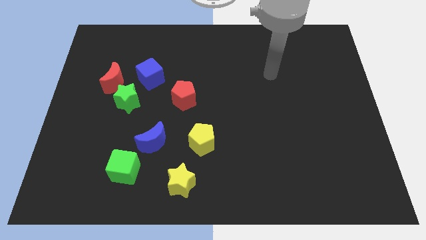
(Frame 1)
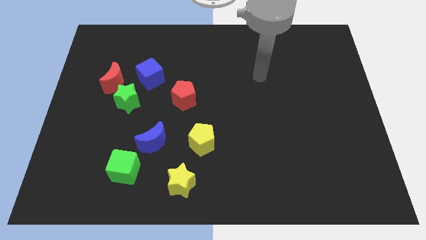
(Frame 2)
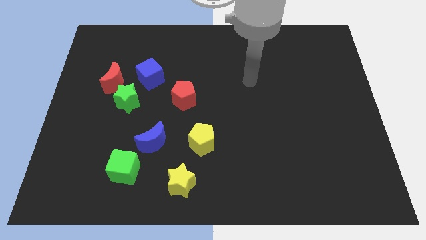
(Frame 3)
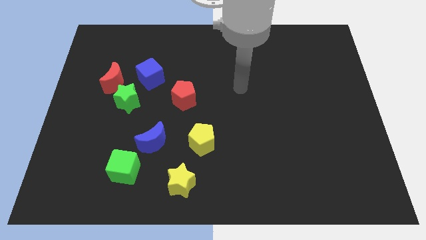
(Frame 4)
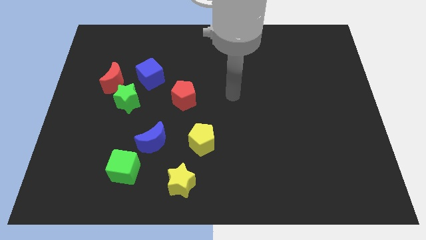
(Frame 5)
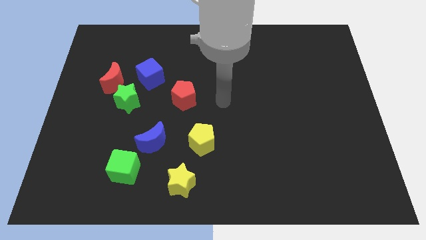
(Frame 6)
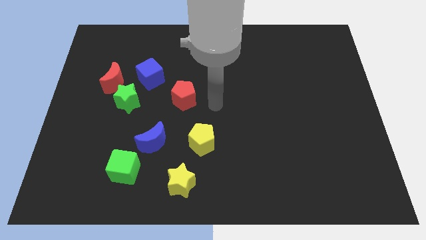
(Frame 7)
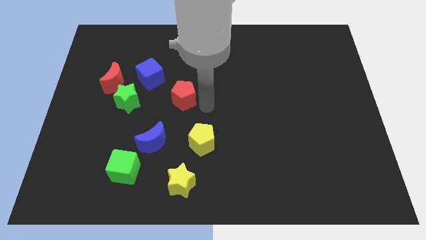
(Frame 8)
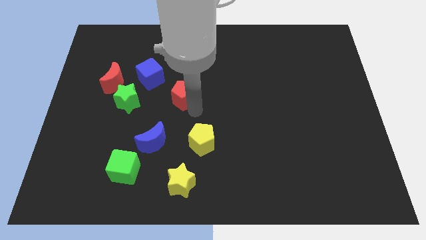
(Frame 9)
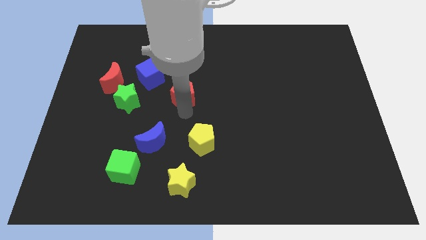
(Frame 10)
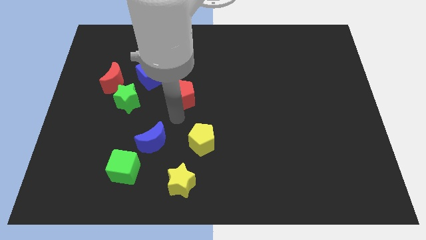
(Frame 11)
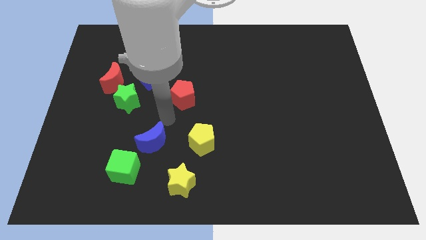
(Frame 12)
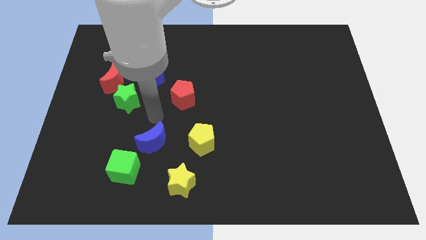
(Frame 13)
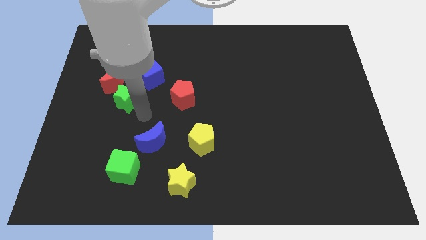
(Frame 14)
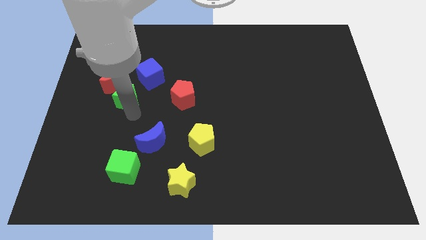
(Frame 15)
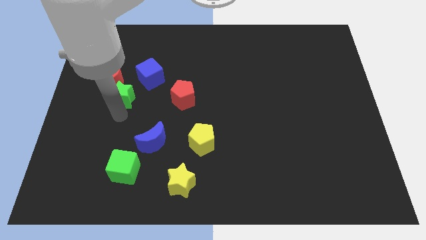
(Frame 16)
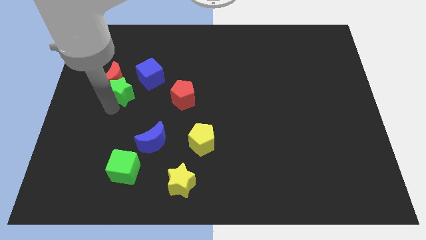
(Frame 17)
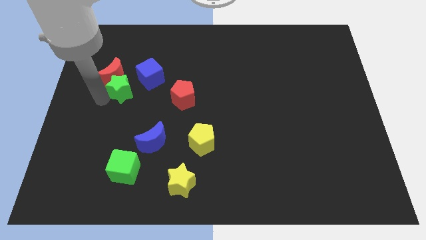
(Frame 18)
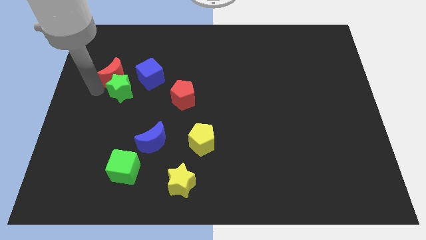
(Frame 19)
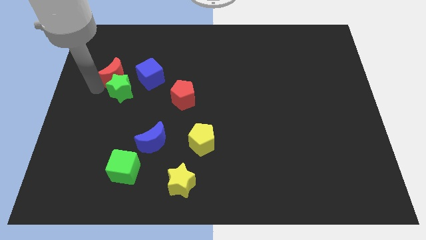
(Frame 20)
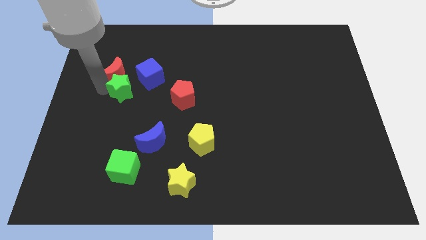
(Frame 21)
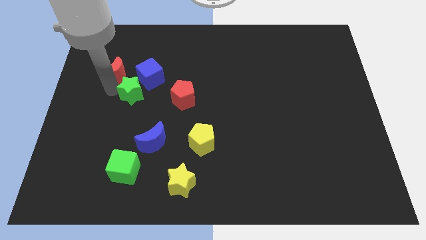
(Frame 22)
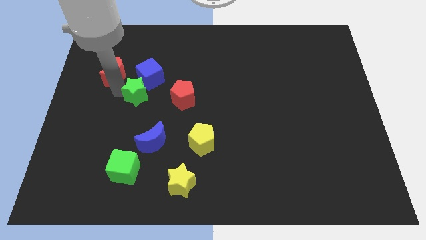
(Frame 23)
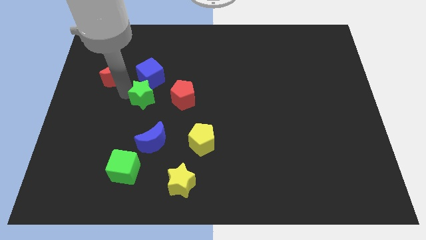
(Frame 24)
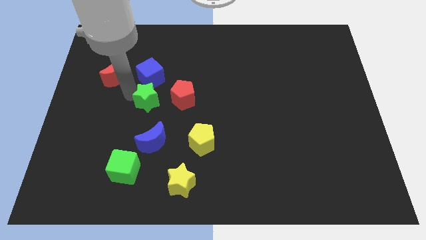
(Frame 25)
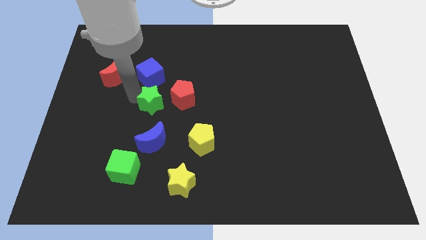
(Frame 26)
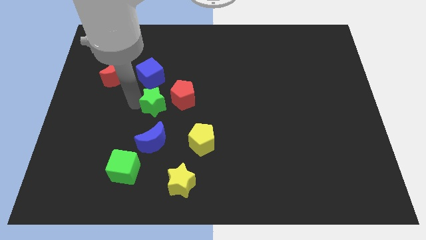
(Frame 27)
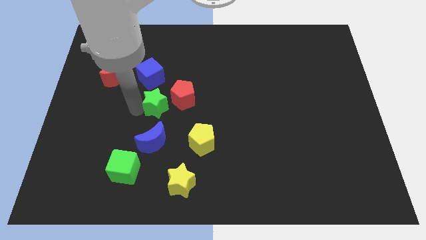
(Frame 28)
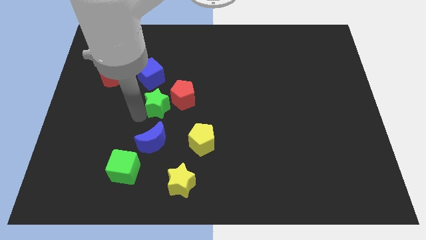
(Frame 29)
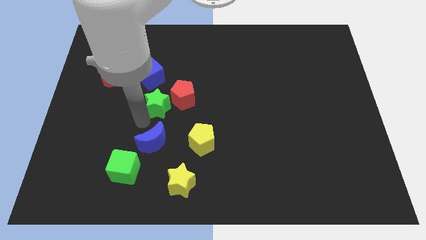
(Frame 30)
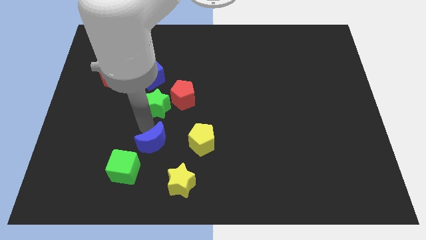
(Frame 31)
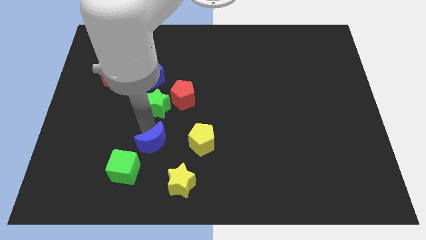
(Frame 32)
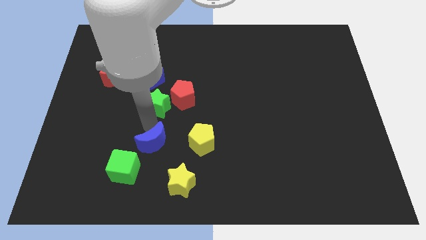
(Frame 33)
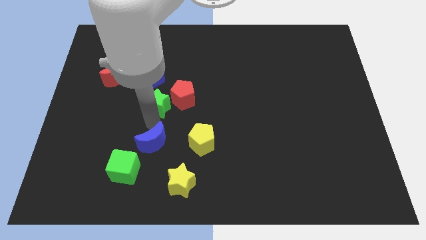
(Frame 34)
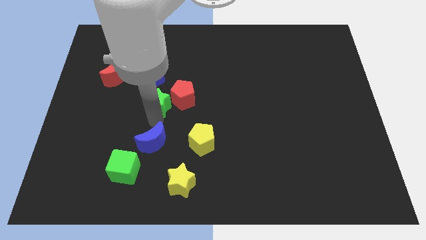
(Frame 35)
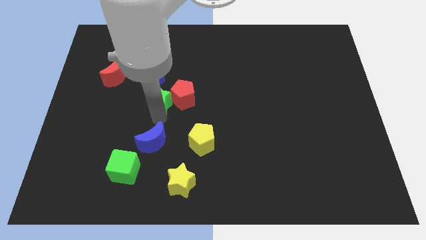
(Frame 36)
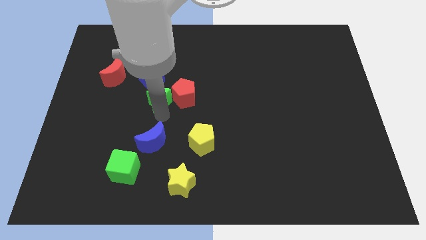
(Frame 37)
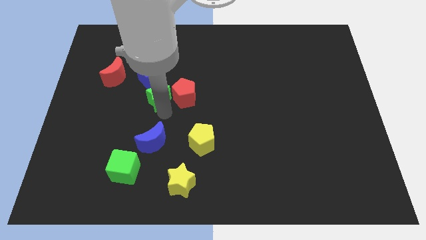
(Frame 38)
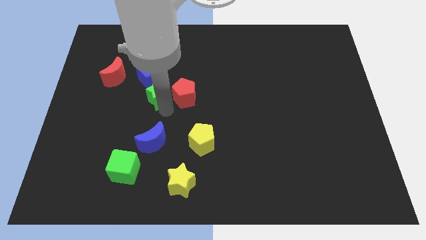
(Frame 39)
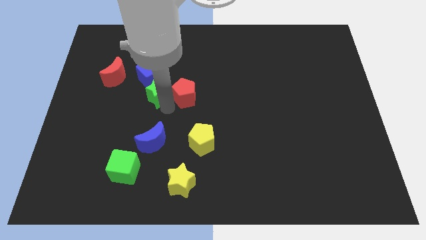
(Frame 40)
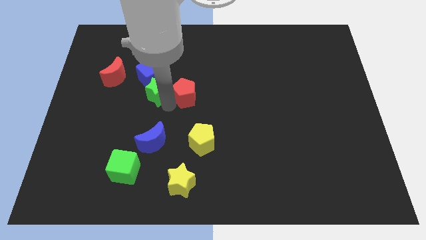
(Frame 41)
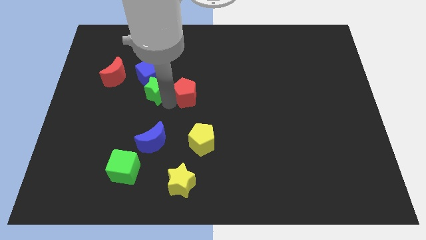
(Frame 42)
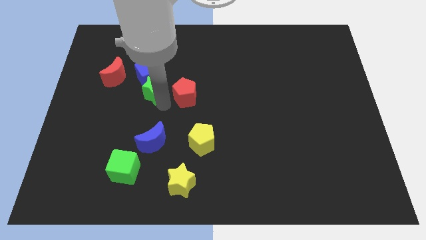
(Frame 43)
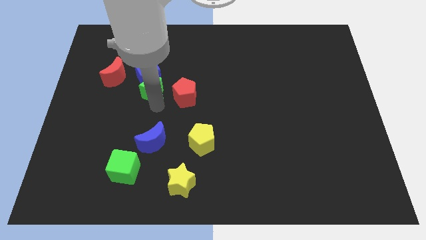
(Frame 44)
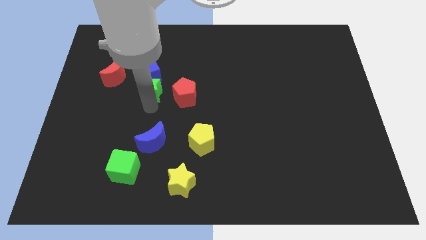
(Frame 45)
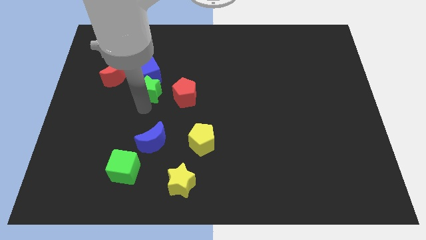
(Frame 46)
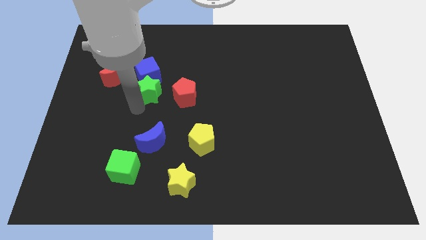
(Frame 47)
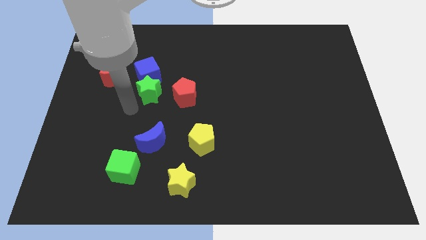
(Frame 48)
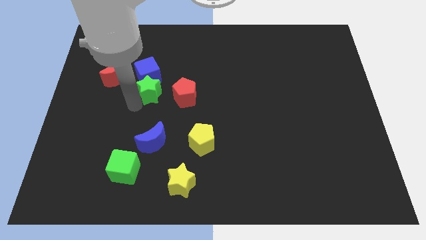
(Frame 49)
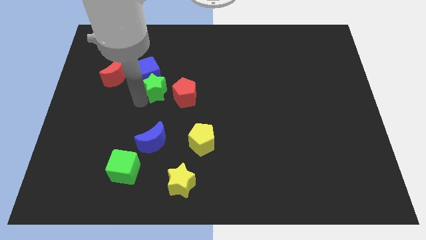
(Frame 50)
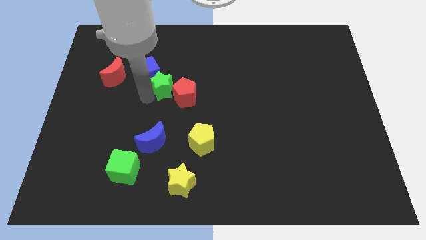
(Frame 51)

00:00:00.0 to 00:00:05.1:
slightly push the green star up and to the right

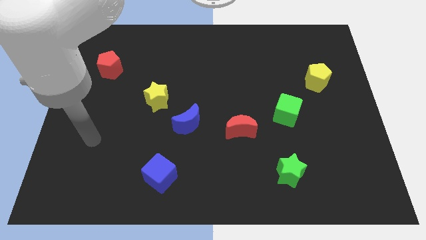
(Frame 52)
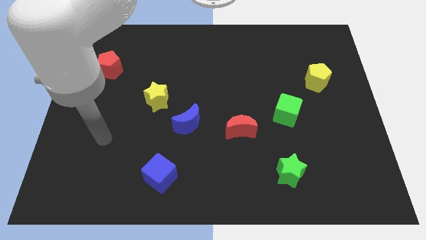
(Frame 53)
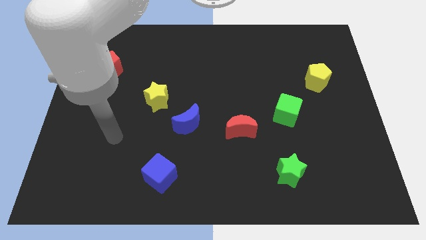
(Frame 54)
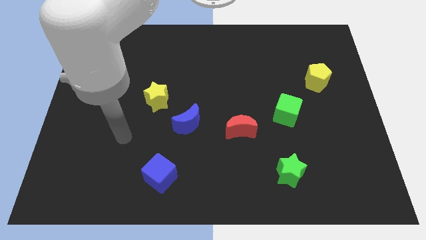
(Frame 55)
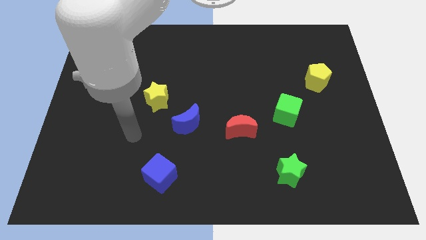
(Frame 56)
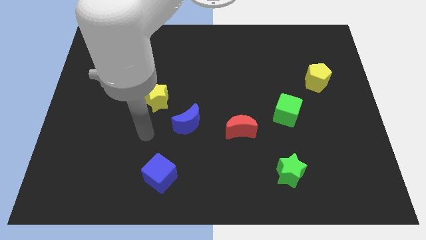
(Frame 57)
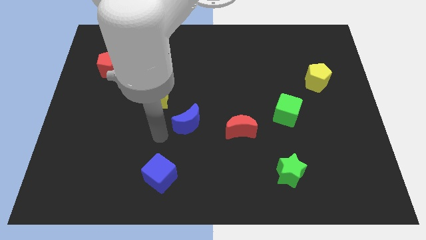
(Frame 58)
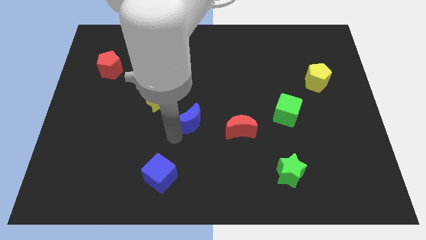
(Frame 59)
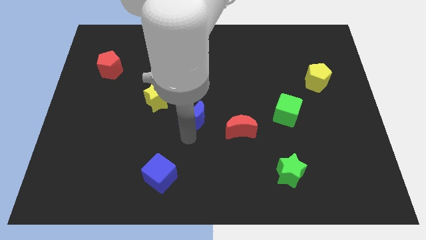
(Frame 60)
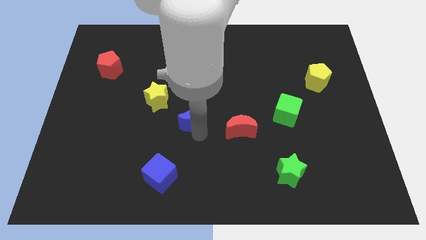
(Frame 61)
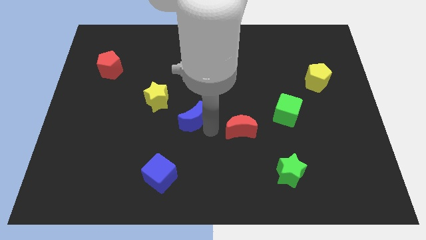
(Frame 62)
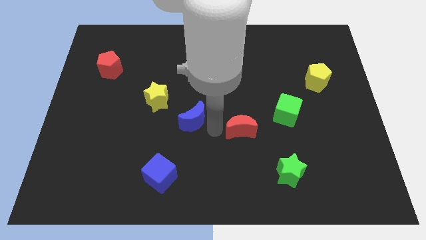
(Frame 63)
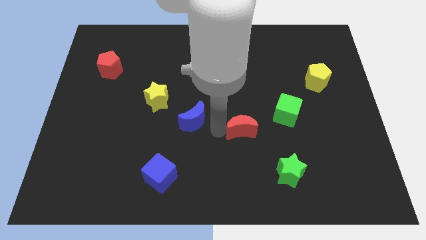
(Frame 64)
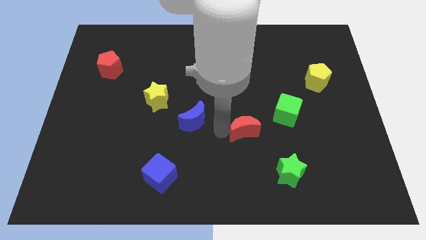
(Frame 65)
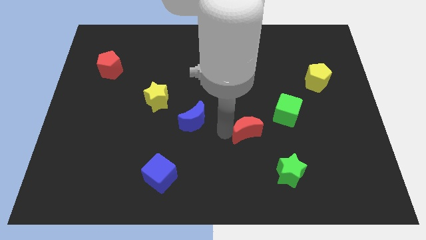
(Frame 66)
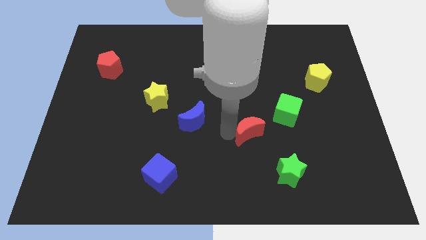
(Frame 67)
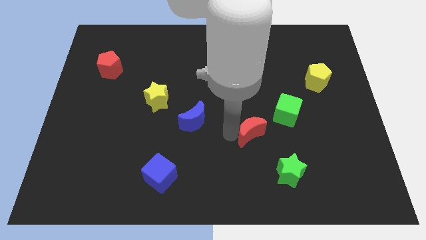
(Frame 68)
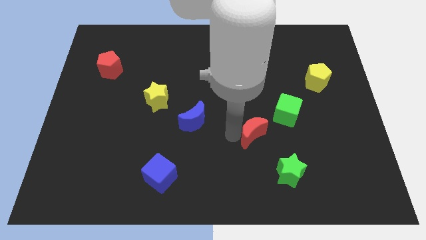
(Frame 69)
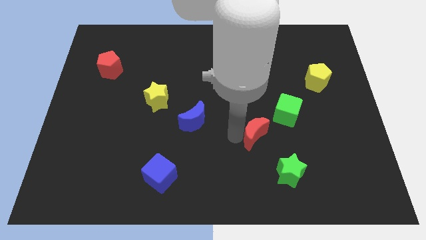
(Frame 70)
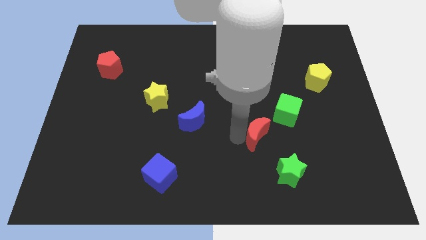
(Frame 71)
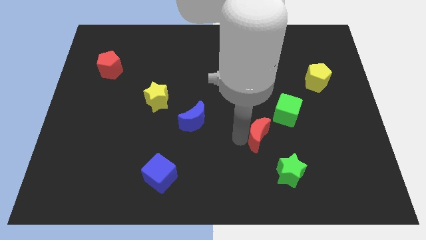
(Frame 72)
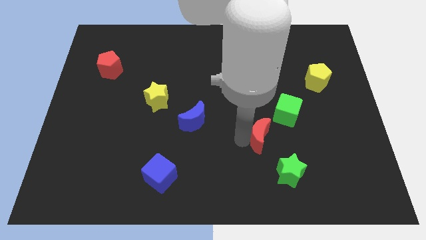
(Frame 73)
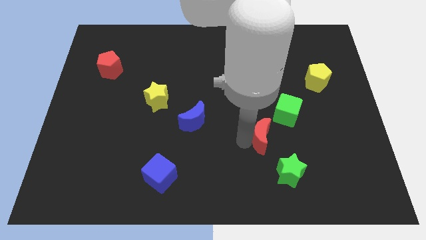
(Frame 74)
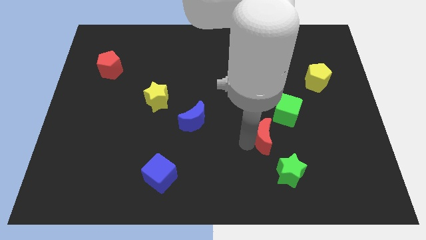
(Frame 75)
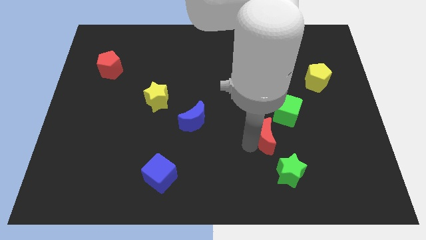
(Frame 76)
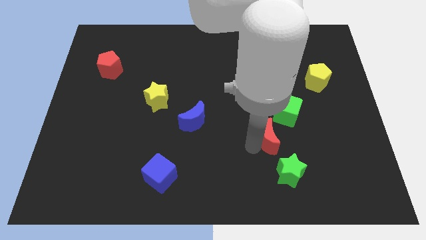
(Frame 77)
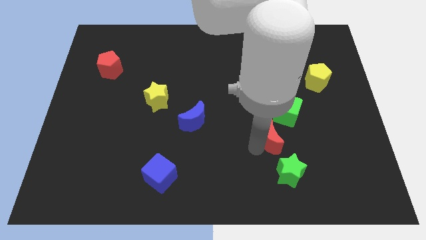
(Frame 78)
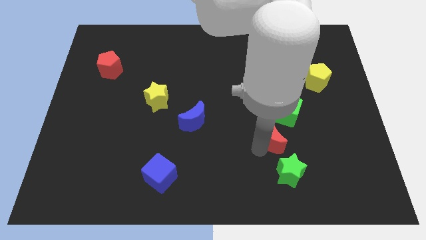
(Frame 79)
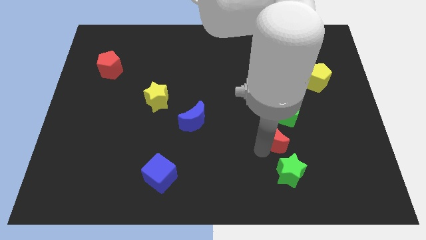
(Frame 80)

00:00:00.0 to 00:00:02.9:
push the red moon a little bit to the right
